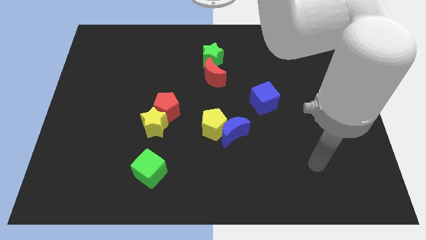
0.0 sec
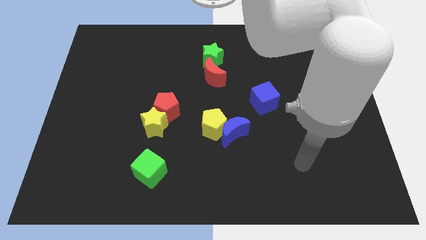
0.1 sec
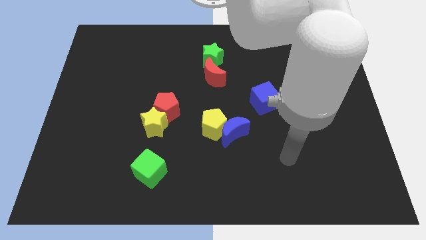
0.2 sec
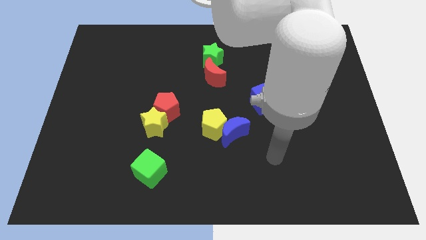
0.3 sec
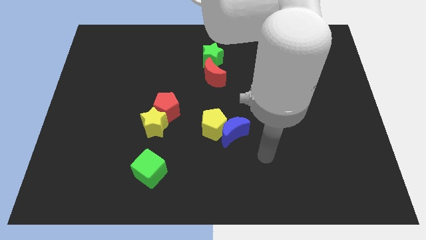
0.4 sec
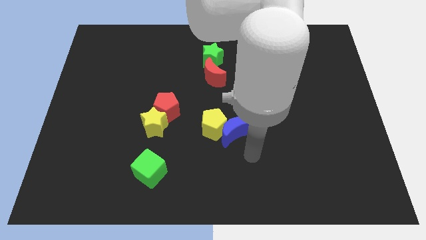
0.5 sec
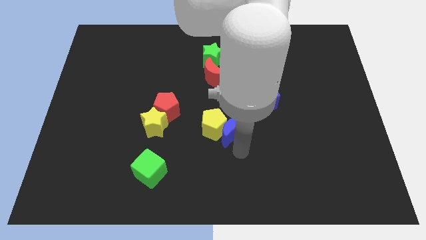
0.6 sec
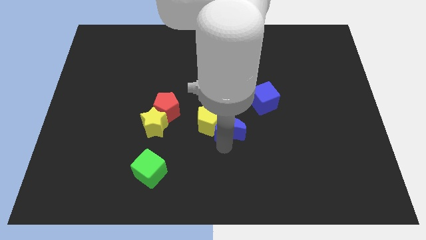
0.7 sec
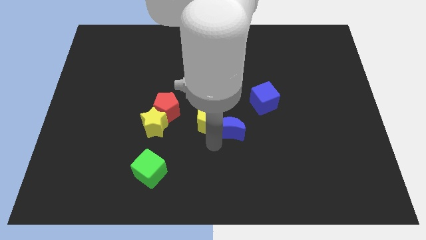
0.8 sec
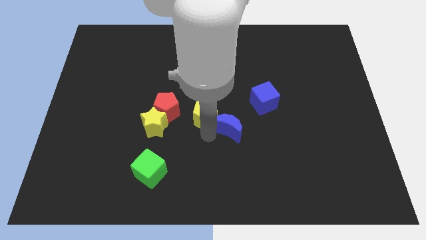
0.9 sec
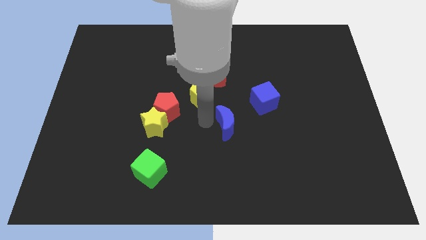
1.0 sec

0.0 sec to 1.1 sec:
separate the blue moon from the yellow pentagon

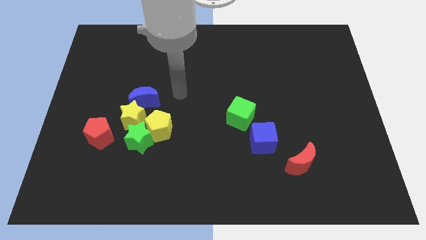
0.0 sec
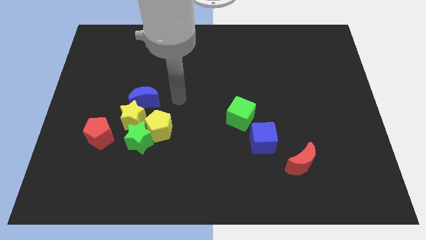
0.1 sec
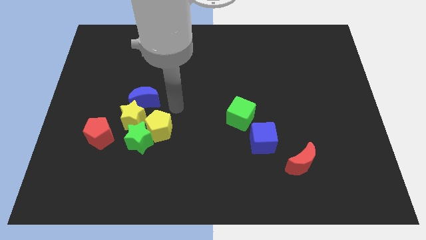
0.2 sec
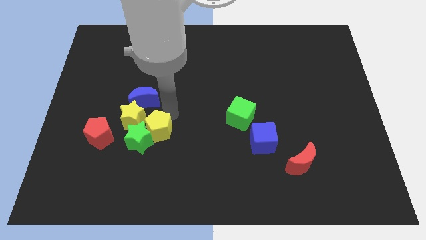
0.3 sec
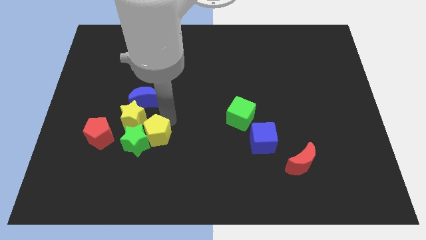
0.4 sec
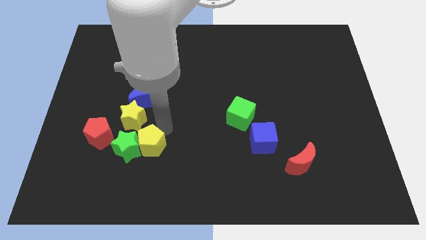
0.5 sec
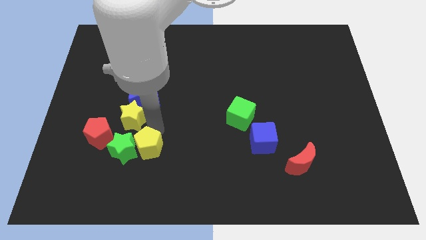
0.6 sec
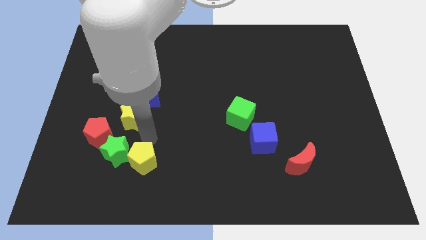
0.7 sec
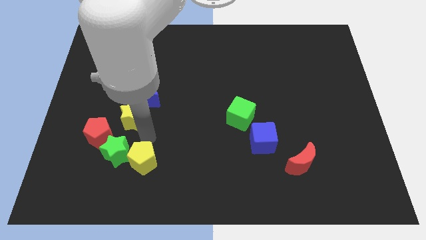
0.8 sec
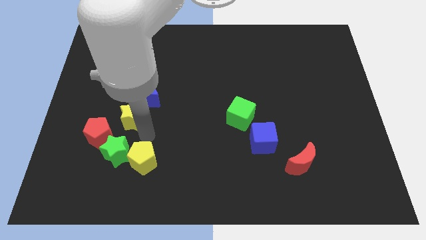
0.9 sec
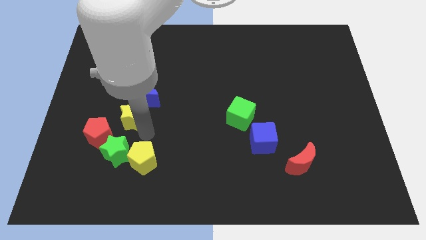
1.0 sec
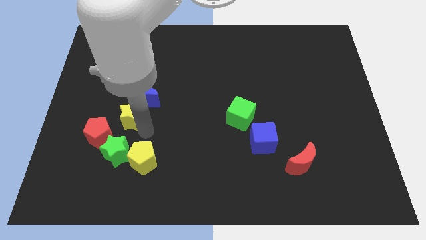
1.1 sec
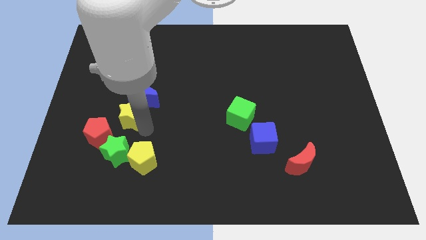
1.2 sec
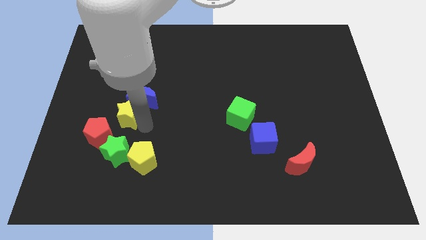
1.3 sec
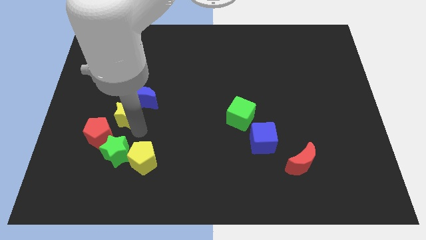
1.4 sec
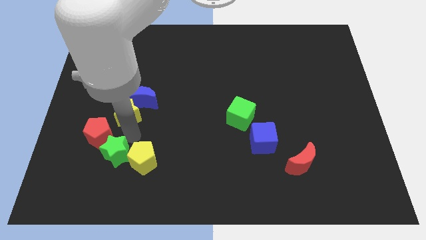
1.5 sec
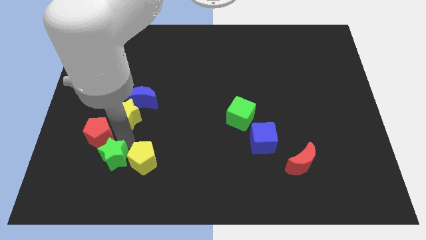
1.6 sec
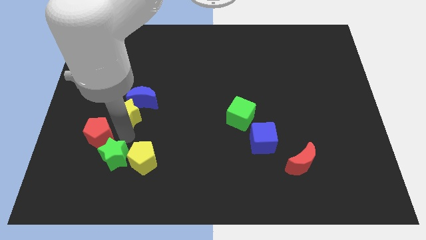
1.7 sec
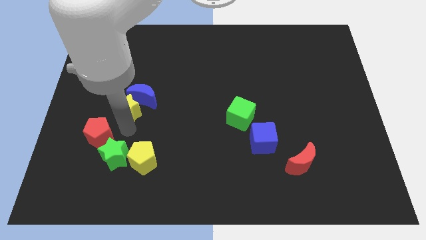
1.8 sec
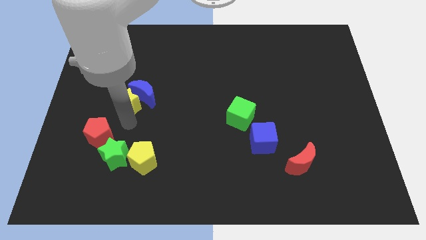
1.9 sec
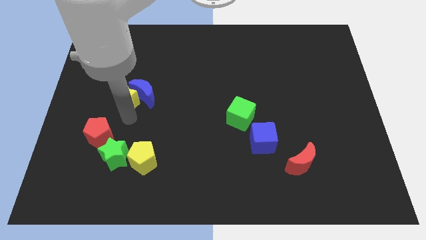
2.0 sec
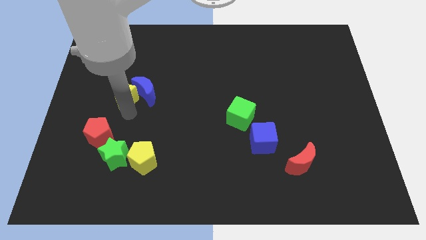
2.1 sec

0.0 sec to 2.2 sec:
separate the yellow star from the group

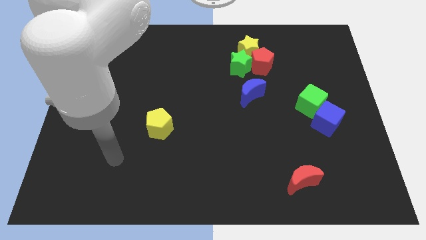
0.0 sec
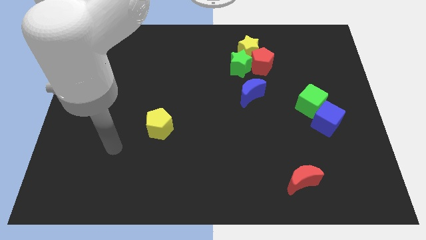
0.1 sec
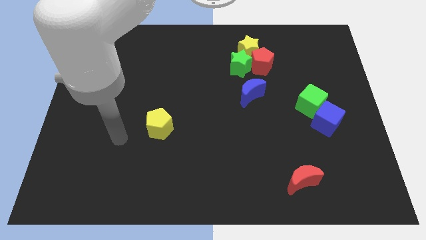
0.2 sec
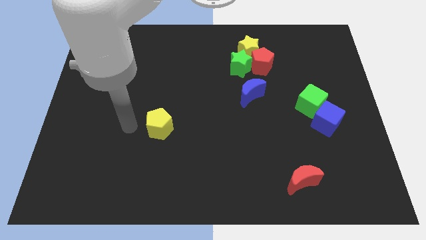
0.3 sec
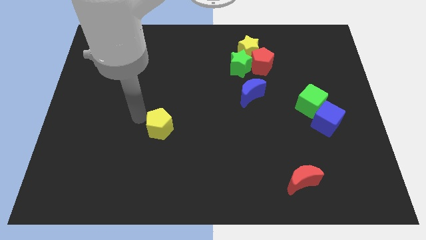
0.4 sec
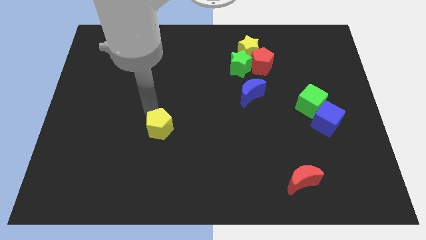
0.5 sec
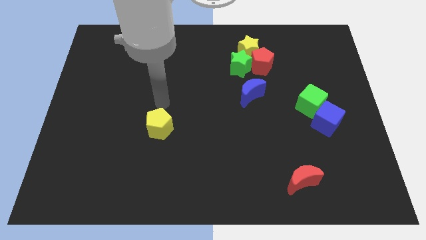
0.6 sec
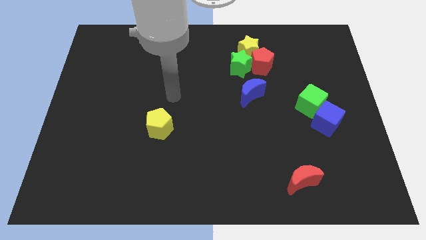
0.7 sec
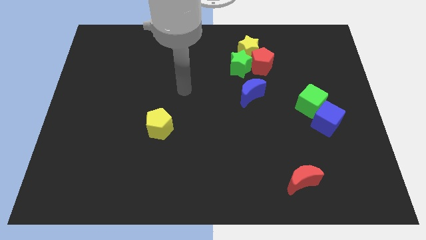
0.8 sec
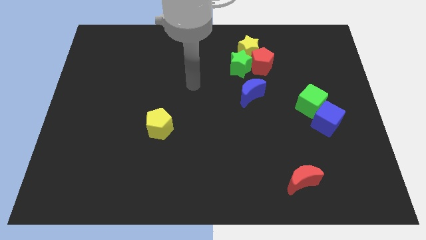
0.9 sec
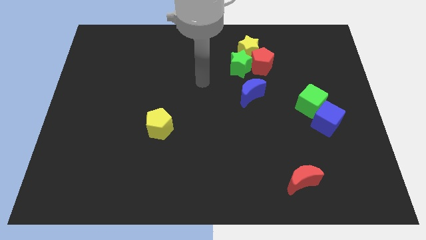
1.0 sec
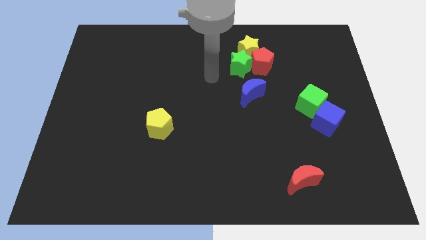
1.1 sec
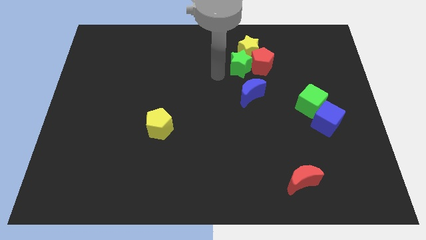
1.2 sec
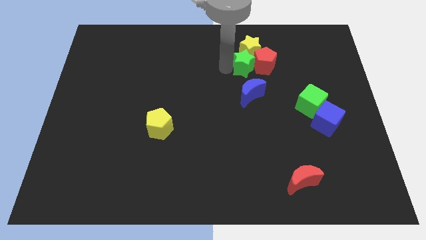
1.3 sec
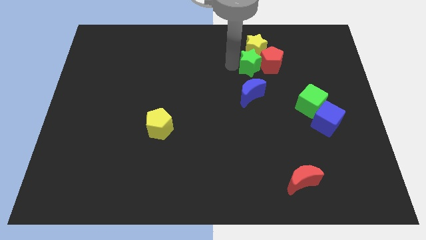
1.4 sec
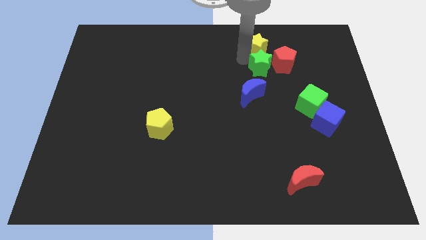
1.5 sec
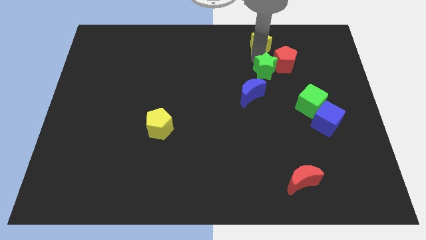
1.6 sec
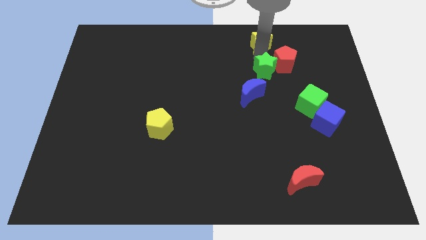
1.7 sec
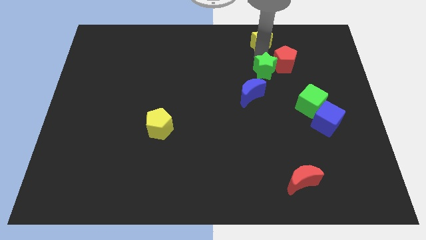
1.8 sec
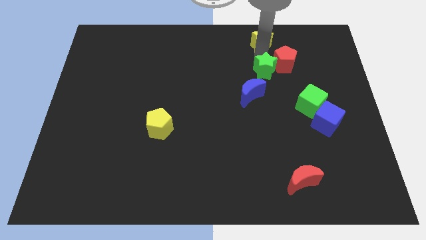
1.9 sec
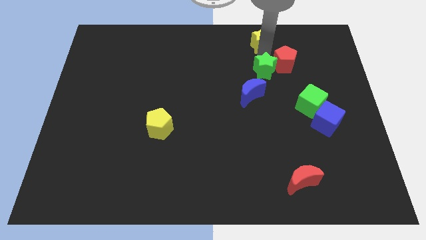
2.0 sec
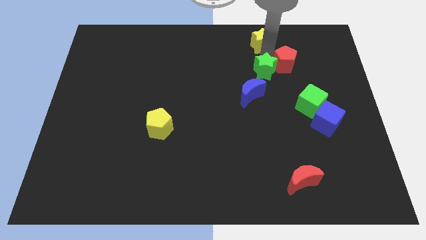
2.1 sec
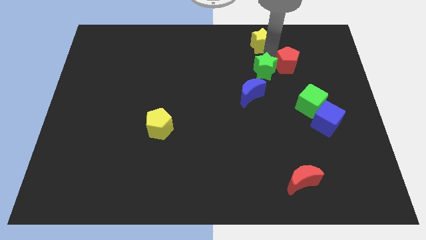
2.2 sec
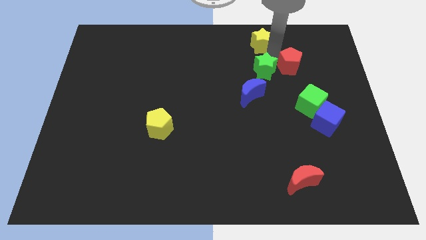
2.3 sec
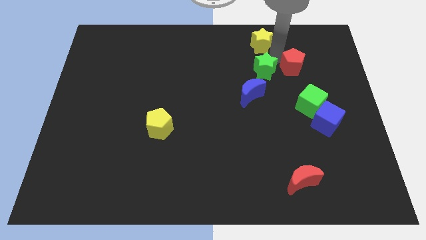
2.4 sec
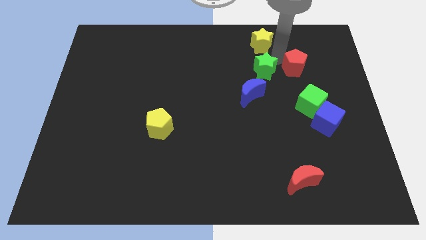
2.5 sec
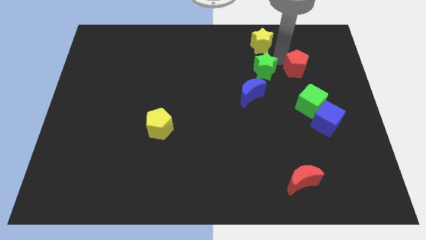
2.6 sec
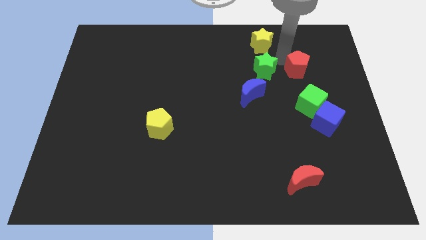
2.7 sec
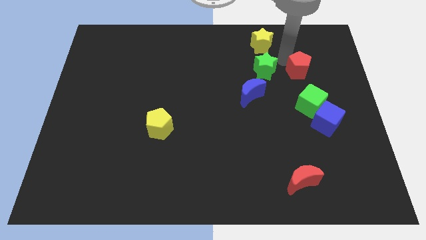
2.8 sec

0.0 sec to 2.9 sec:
move the red pentagon away from the yellow star and green star

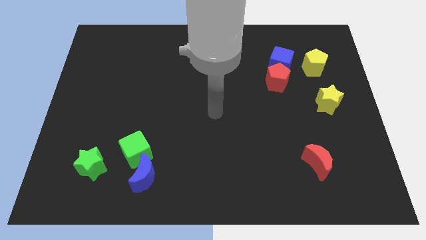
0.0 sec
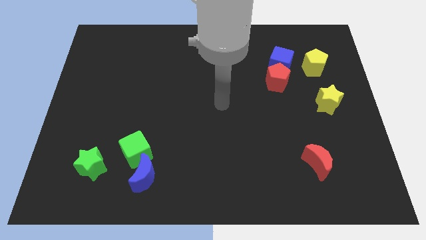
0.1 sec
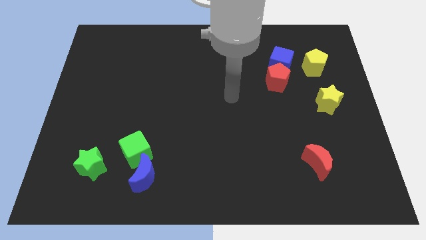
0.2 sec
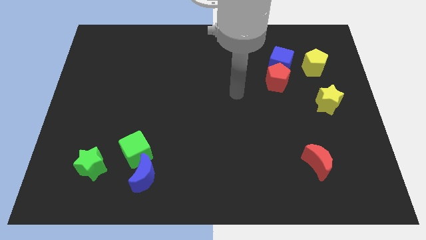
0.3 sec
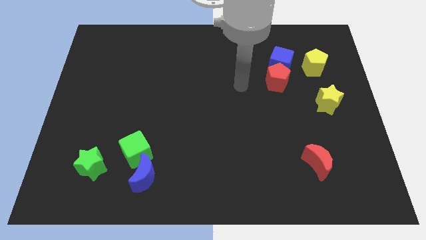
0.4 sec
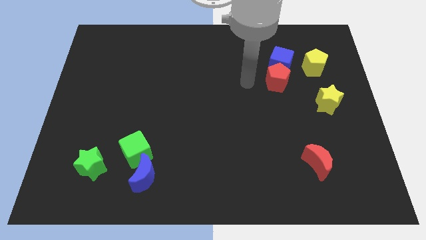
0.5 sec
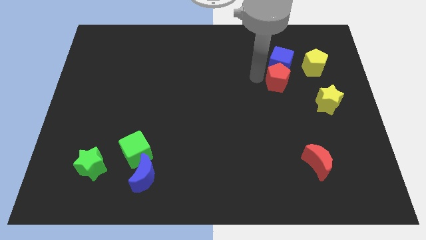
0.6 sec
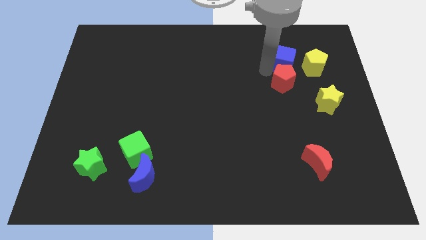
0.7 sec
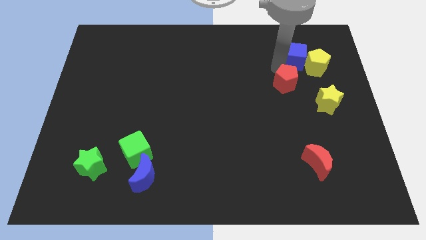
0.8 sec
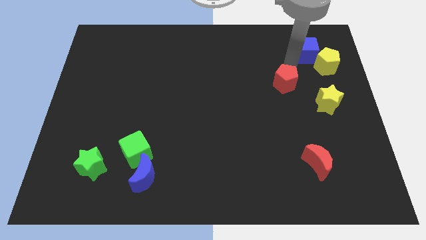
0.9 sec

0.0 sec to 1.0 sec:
separate the red pentagon from the blue cube

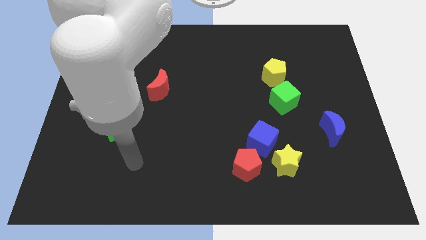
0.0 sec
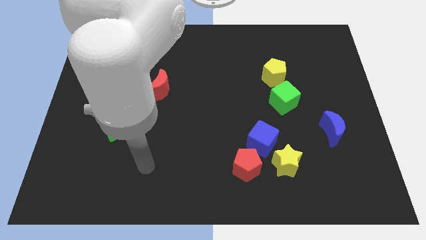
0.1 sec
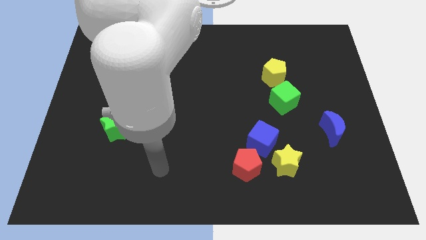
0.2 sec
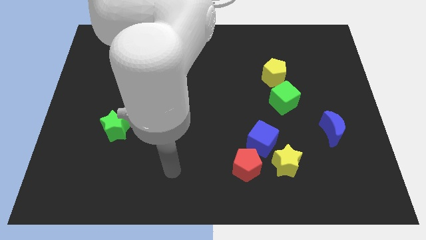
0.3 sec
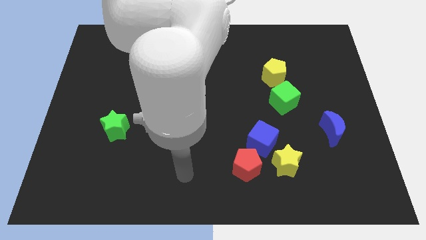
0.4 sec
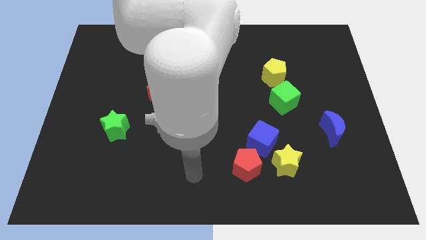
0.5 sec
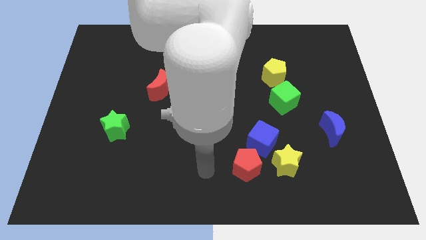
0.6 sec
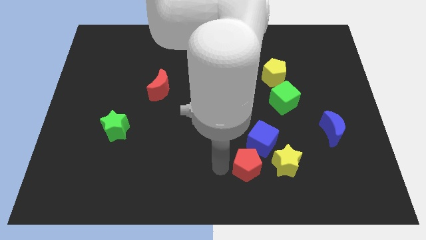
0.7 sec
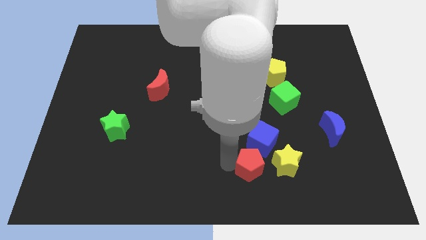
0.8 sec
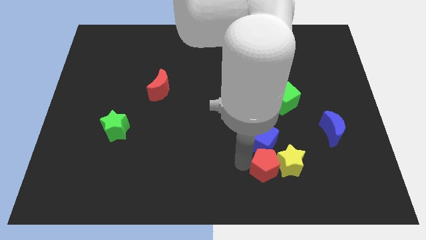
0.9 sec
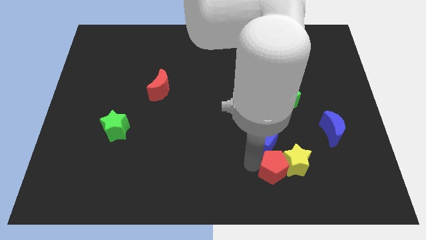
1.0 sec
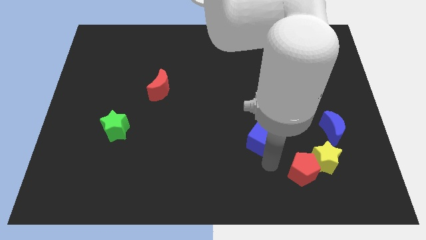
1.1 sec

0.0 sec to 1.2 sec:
pull the blue cube apart from the yellow star and red pentagon

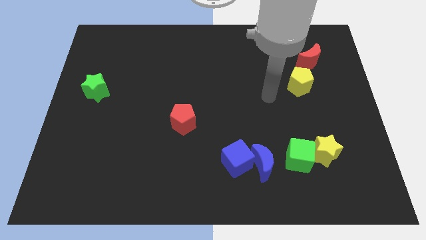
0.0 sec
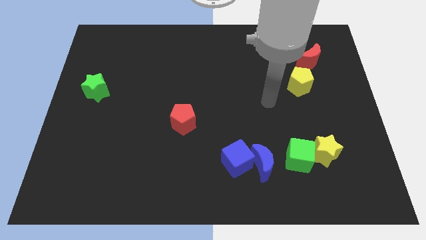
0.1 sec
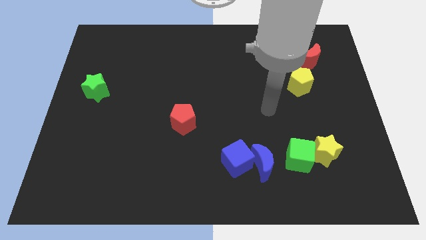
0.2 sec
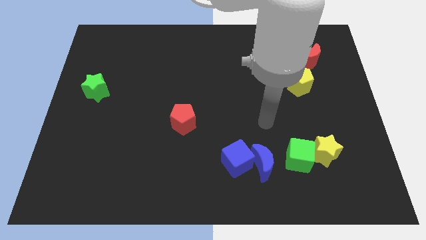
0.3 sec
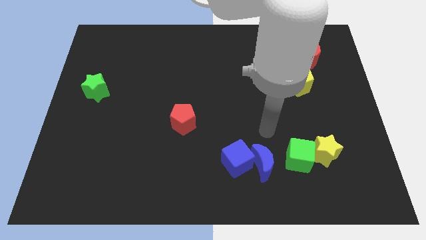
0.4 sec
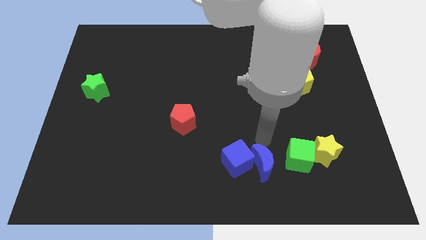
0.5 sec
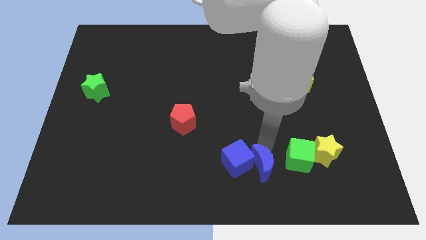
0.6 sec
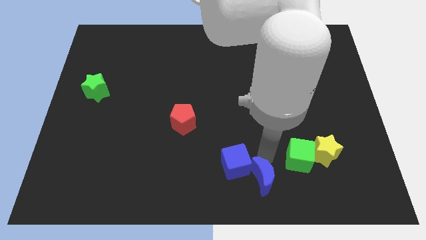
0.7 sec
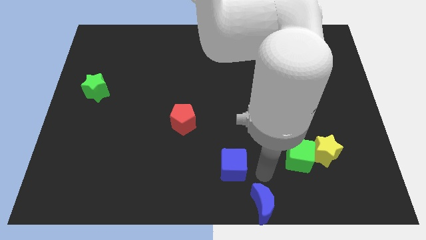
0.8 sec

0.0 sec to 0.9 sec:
pull the blue cube apart from the blue moon
